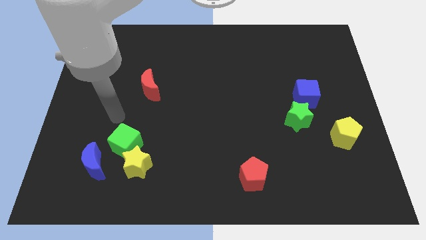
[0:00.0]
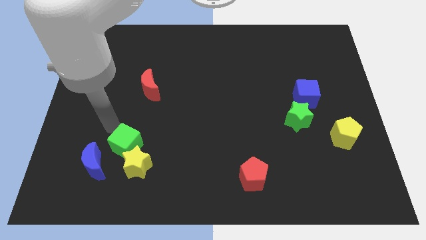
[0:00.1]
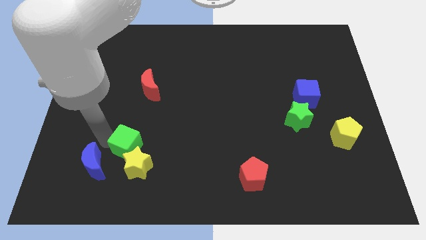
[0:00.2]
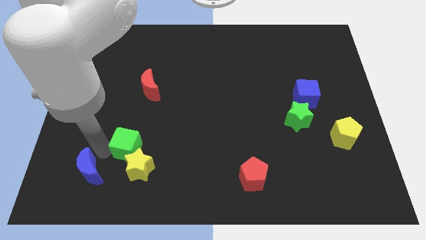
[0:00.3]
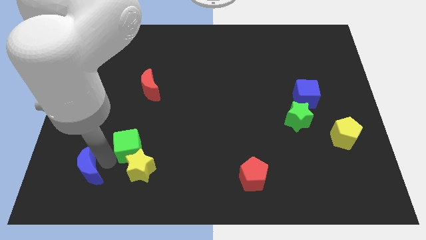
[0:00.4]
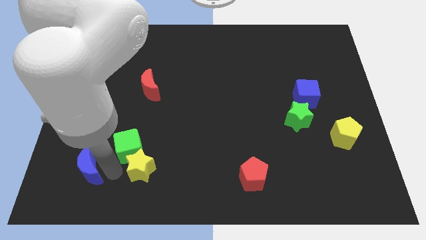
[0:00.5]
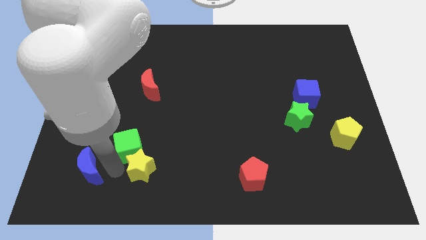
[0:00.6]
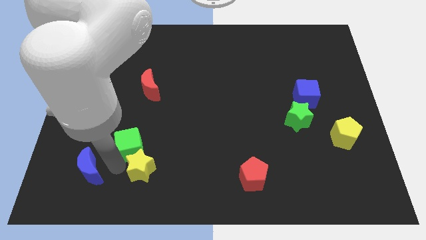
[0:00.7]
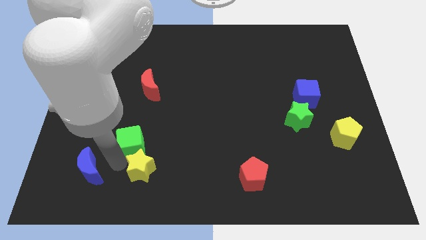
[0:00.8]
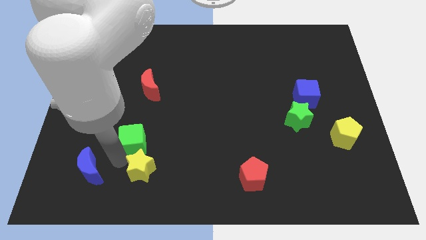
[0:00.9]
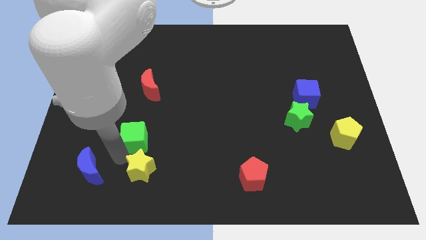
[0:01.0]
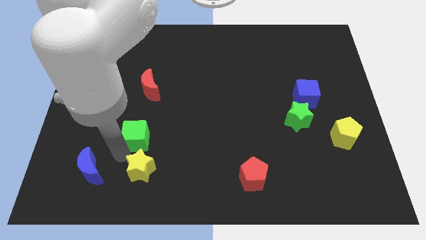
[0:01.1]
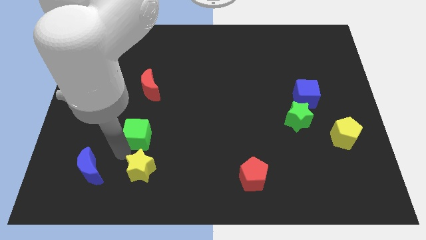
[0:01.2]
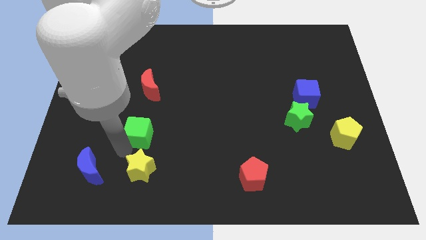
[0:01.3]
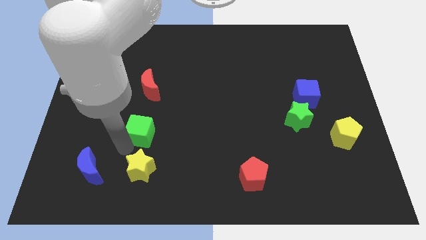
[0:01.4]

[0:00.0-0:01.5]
move the green cube away from the yellow star and blue moon

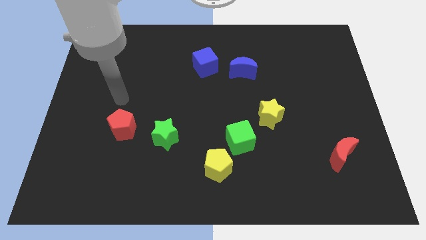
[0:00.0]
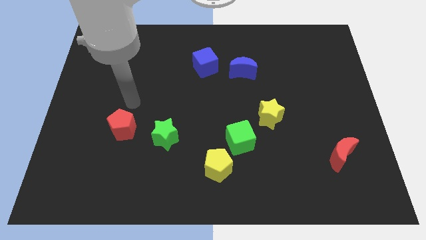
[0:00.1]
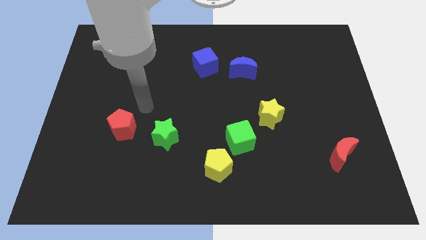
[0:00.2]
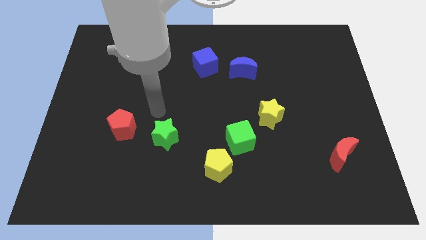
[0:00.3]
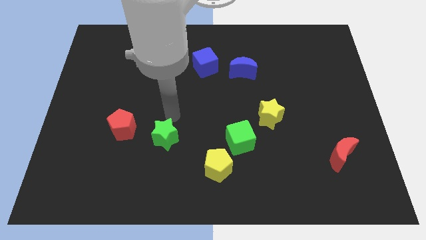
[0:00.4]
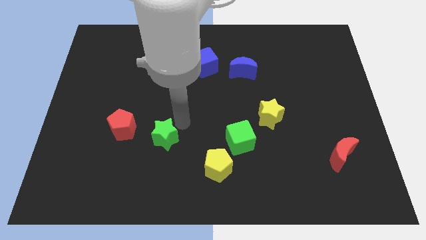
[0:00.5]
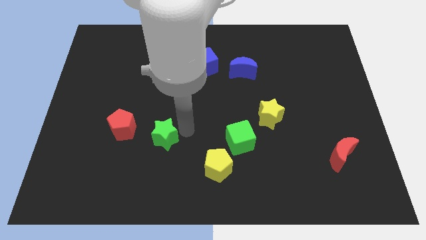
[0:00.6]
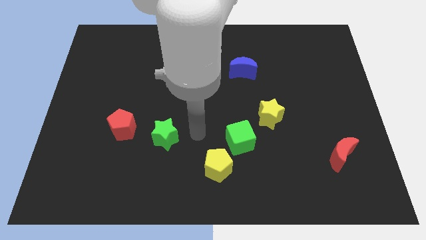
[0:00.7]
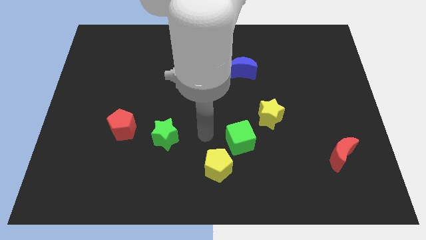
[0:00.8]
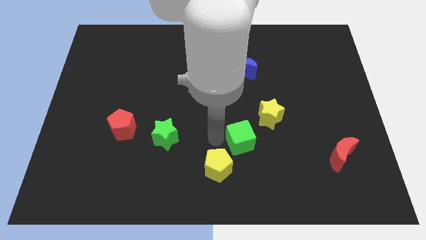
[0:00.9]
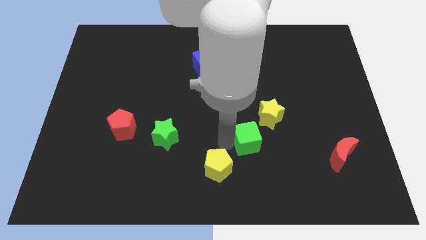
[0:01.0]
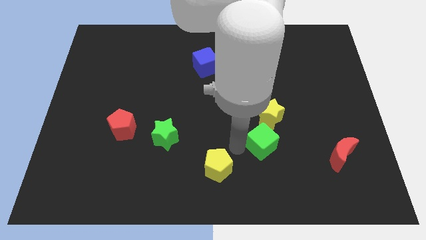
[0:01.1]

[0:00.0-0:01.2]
separate the yellow pentagon from the green cube

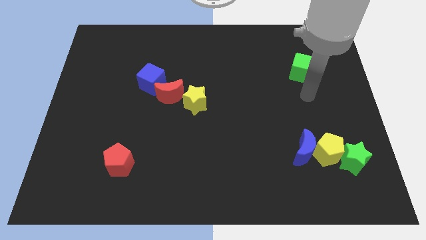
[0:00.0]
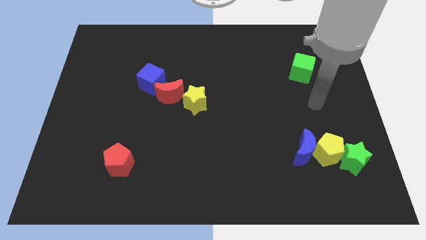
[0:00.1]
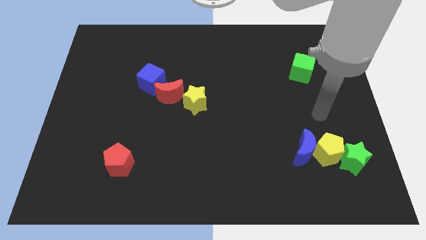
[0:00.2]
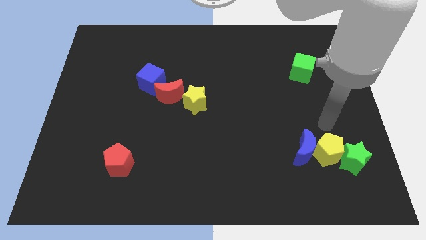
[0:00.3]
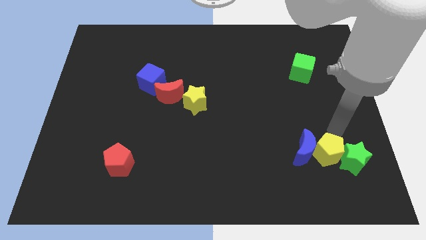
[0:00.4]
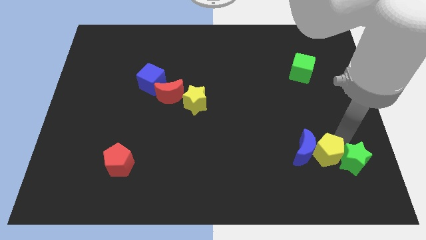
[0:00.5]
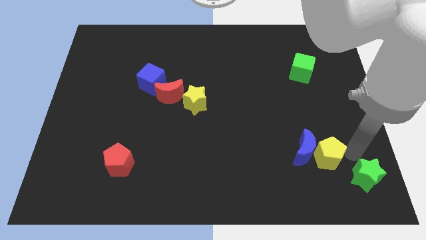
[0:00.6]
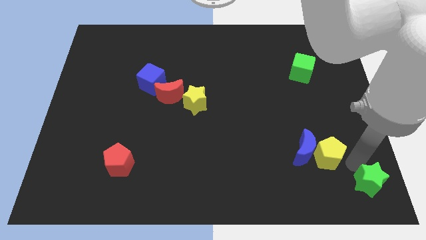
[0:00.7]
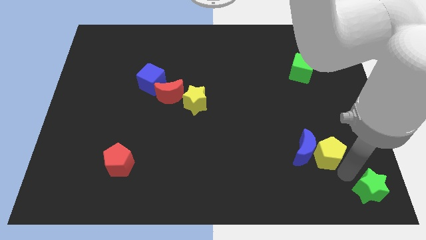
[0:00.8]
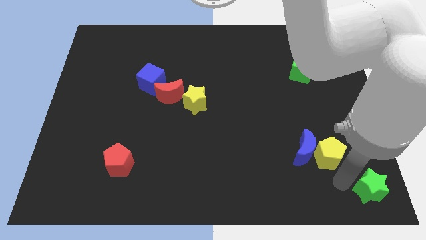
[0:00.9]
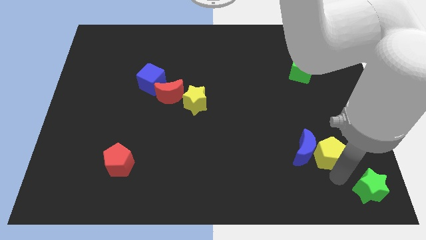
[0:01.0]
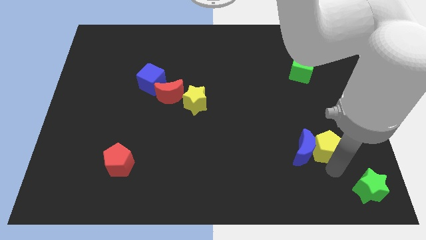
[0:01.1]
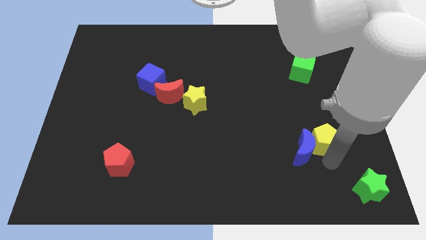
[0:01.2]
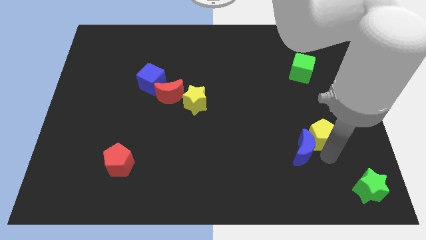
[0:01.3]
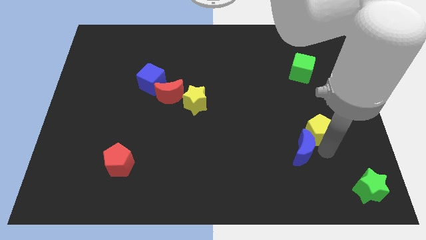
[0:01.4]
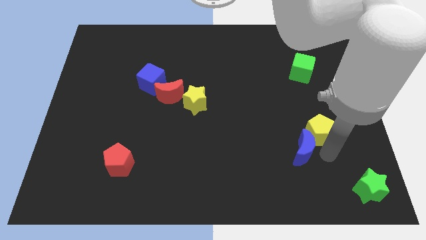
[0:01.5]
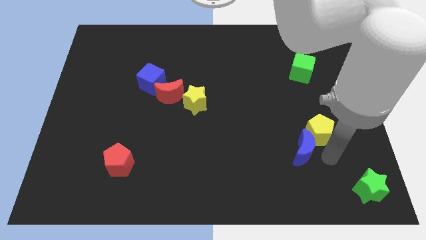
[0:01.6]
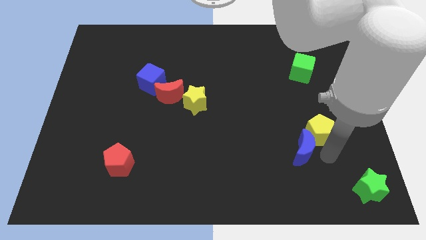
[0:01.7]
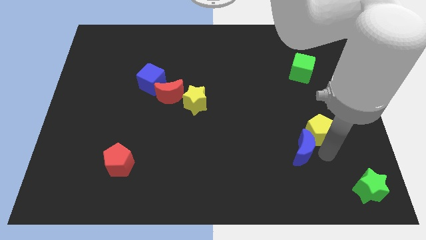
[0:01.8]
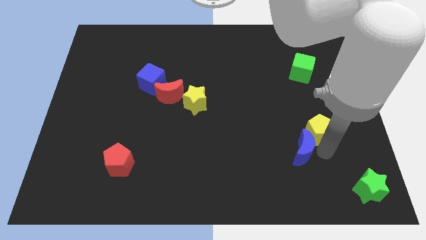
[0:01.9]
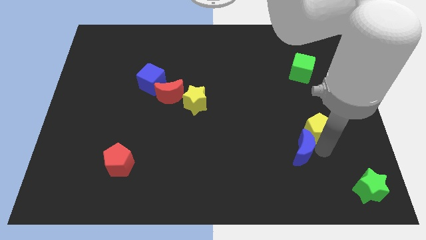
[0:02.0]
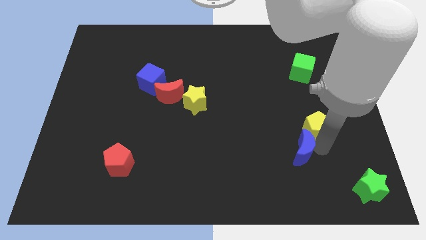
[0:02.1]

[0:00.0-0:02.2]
move the yellow pentagon away from the blue moon and green star

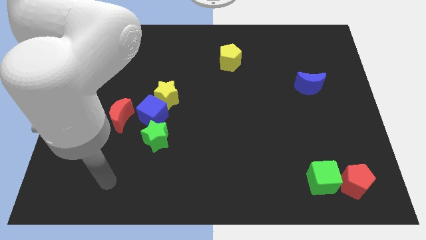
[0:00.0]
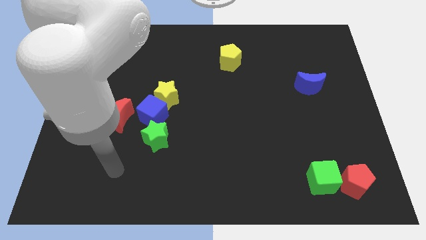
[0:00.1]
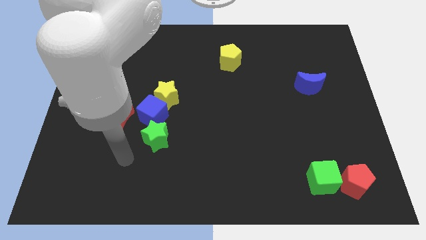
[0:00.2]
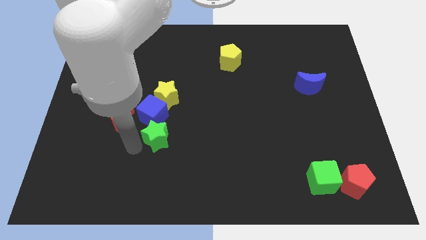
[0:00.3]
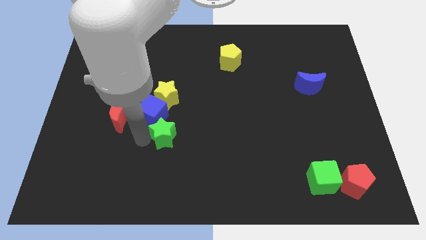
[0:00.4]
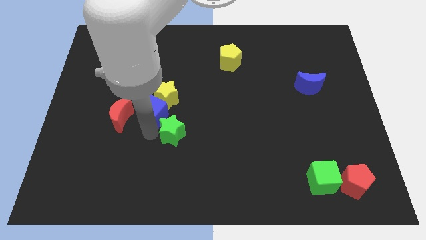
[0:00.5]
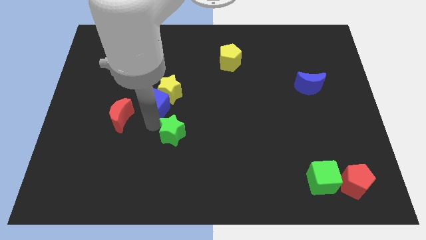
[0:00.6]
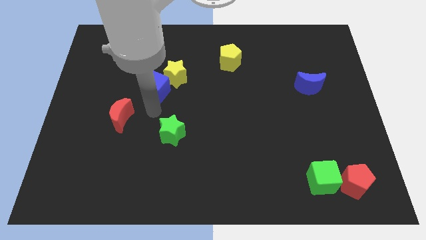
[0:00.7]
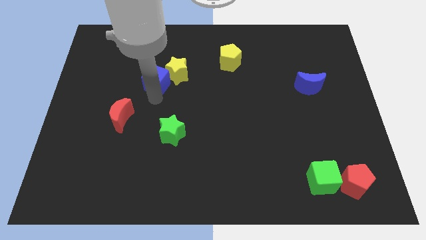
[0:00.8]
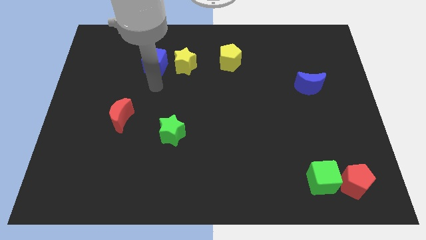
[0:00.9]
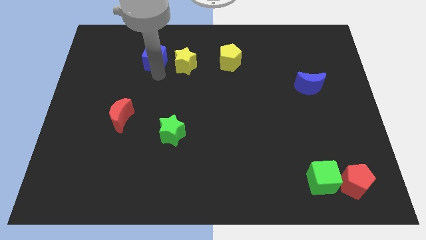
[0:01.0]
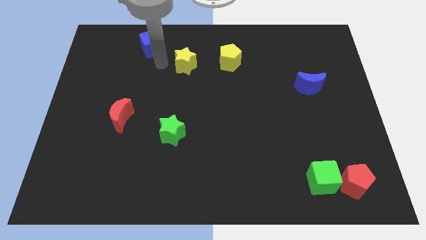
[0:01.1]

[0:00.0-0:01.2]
move the yellow star away from the blue cube

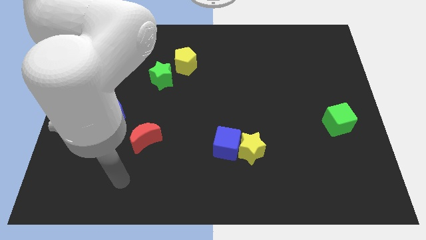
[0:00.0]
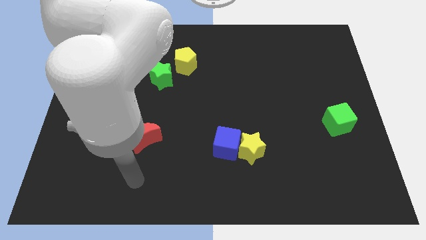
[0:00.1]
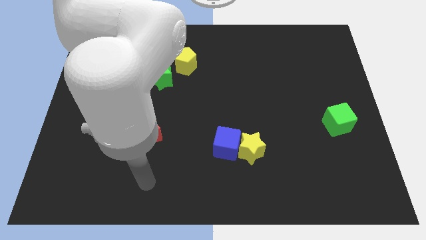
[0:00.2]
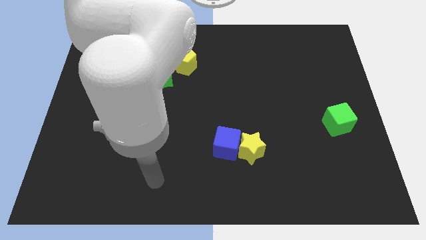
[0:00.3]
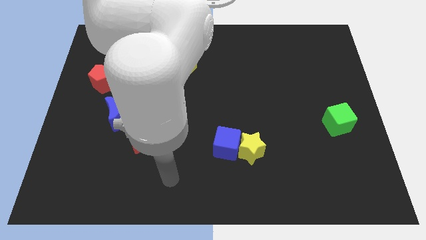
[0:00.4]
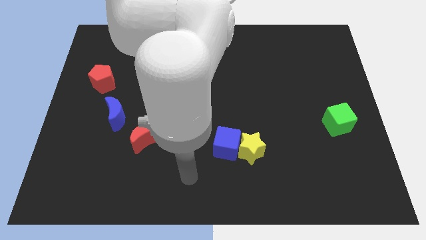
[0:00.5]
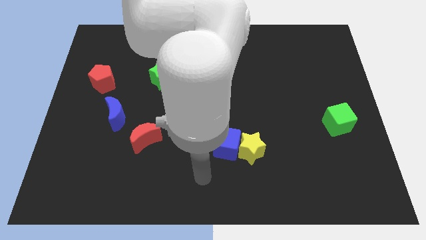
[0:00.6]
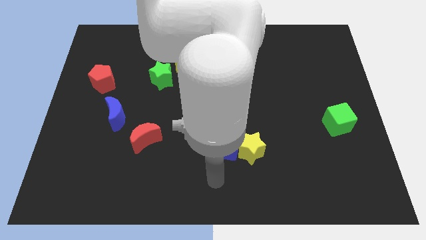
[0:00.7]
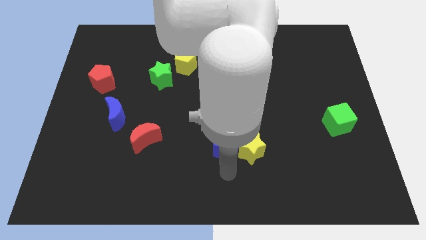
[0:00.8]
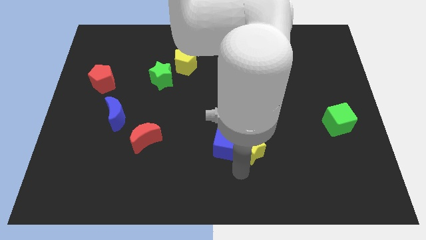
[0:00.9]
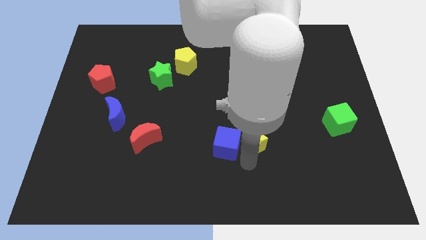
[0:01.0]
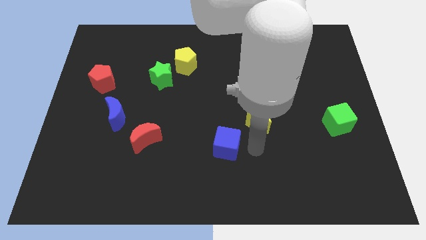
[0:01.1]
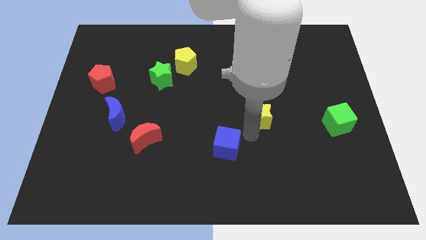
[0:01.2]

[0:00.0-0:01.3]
separate the blue cube from the yellow star

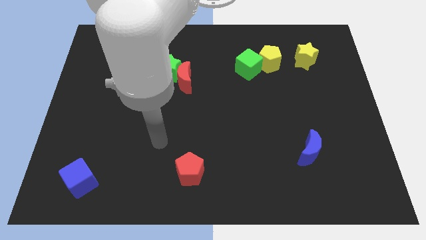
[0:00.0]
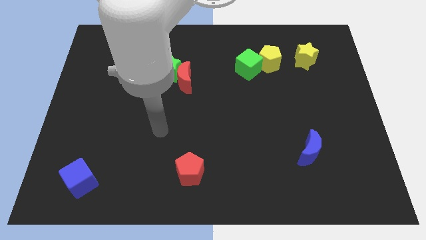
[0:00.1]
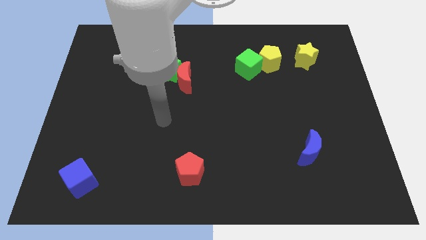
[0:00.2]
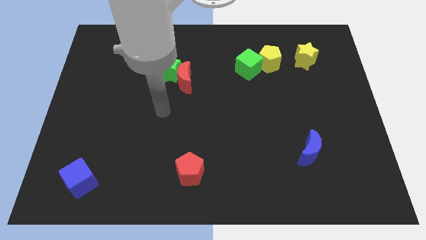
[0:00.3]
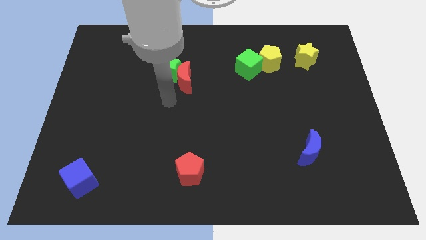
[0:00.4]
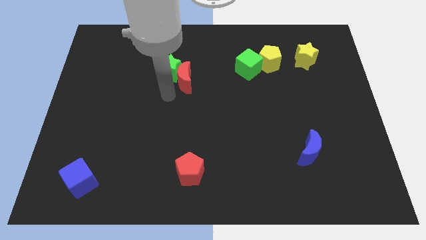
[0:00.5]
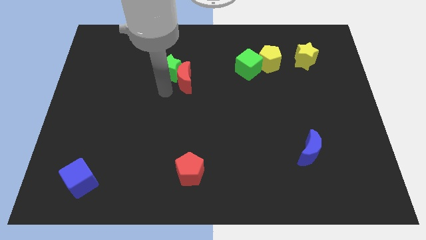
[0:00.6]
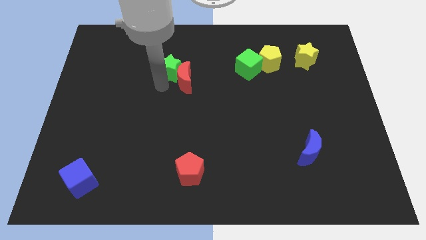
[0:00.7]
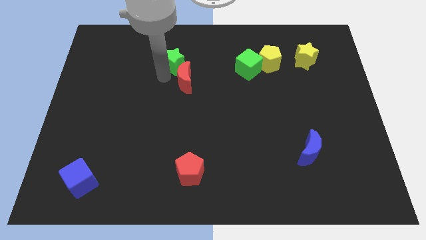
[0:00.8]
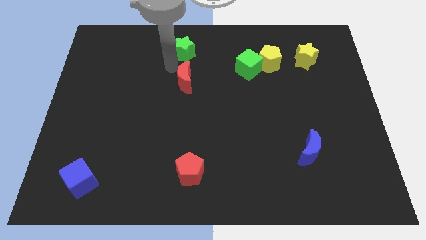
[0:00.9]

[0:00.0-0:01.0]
separate the red moon from the green star

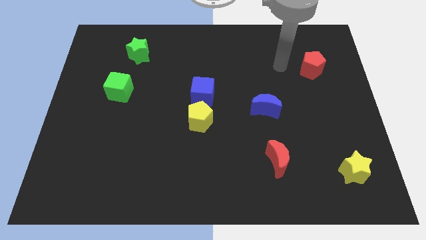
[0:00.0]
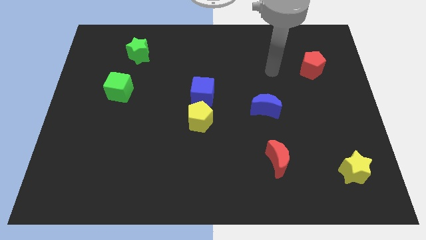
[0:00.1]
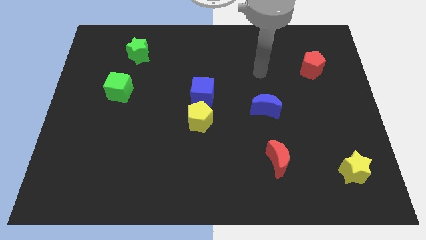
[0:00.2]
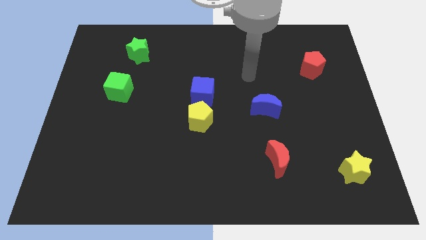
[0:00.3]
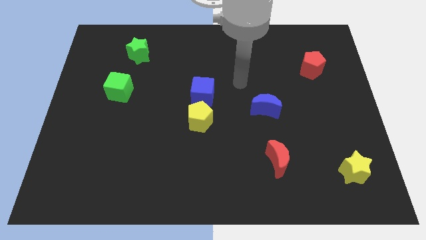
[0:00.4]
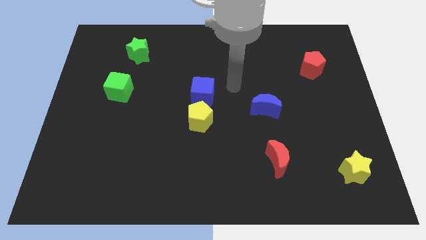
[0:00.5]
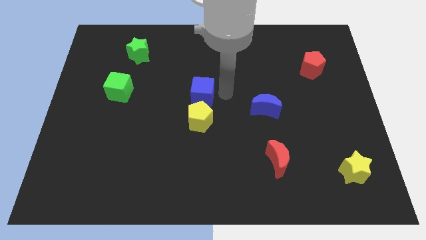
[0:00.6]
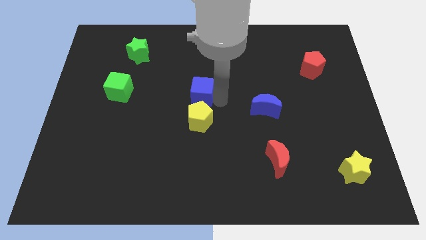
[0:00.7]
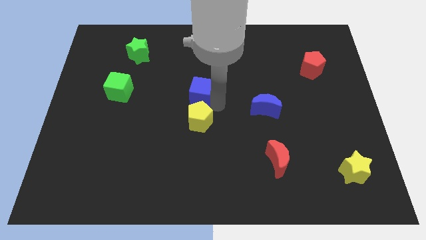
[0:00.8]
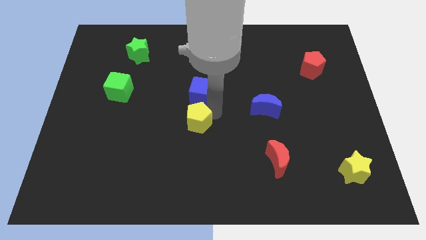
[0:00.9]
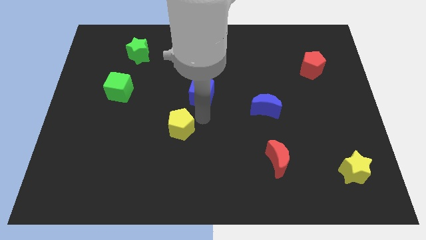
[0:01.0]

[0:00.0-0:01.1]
separate the blue cube from the yellow pentagon
